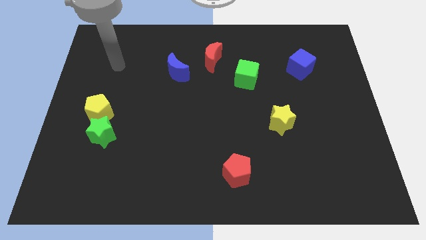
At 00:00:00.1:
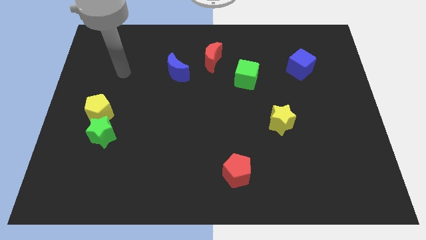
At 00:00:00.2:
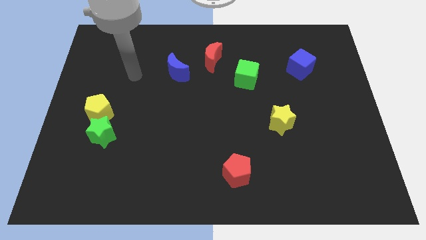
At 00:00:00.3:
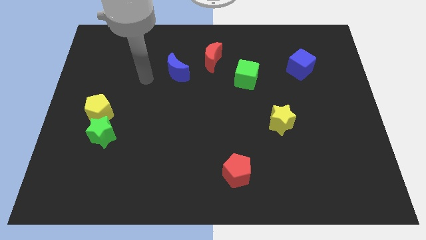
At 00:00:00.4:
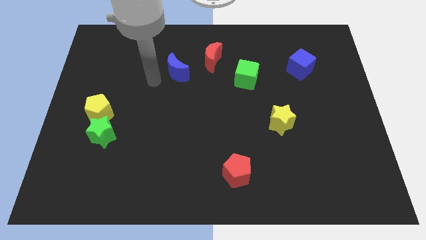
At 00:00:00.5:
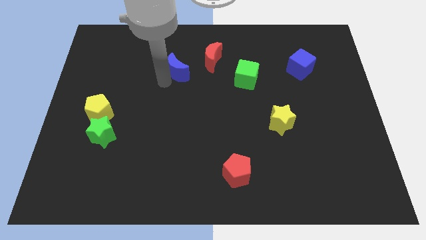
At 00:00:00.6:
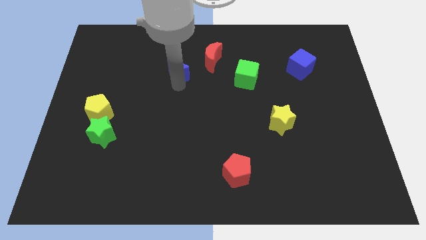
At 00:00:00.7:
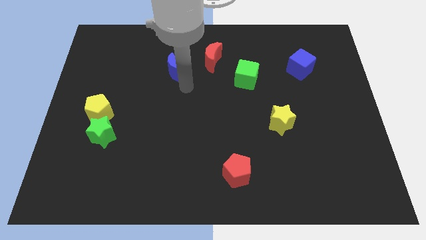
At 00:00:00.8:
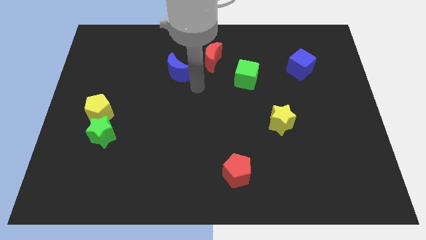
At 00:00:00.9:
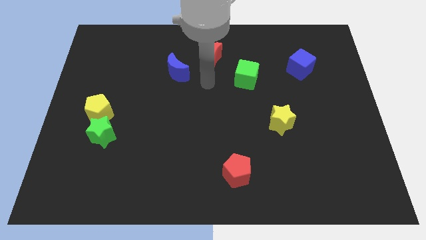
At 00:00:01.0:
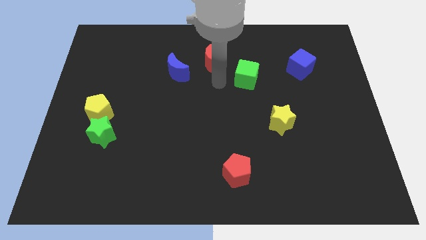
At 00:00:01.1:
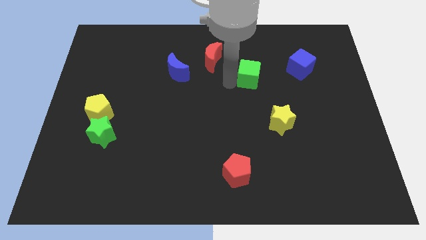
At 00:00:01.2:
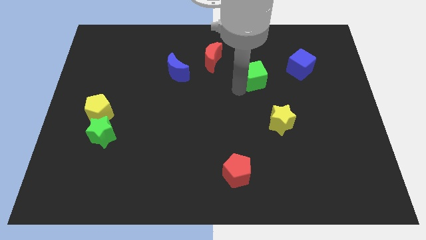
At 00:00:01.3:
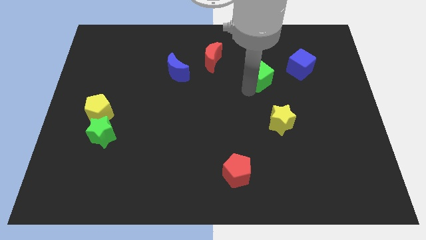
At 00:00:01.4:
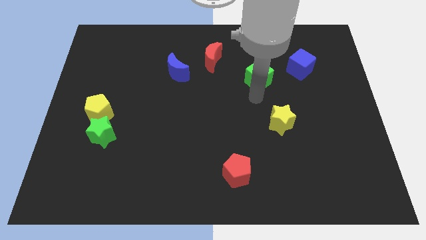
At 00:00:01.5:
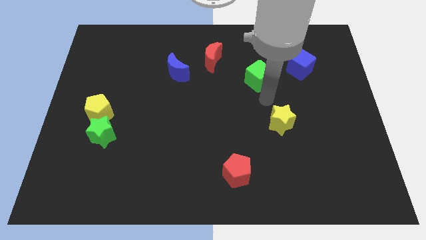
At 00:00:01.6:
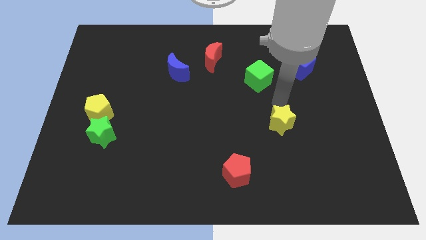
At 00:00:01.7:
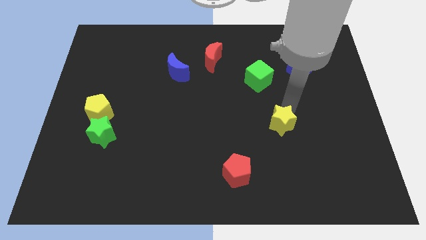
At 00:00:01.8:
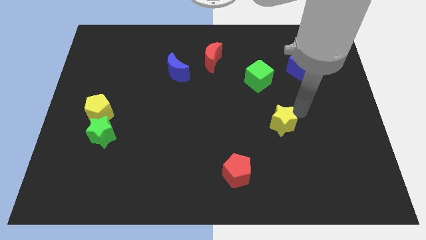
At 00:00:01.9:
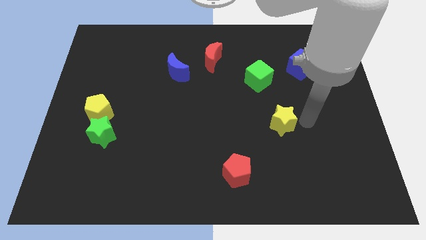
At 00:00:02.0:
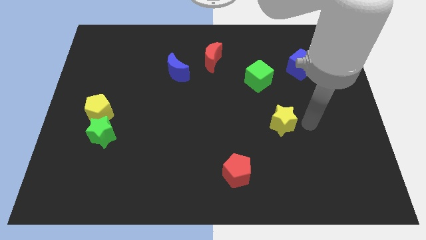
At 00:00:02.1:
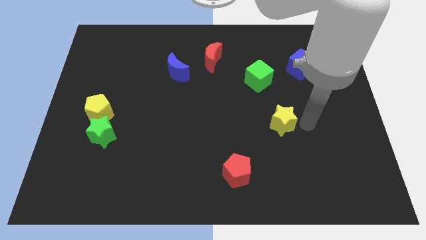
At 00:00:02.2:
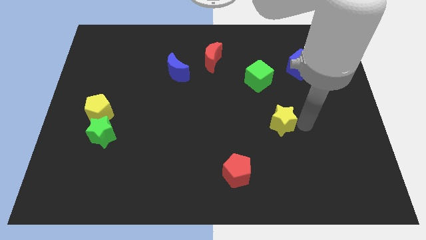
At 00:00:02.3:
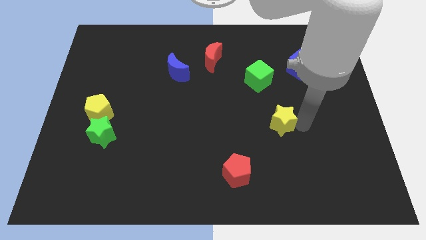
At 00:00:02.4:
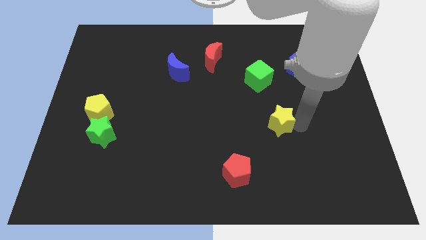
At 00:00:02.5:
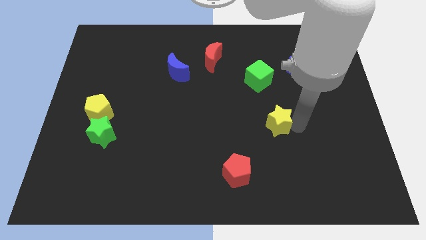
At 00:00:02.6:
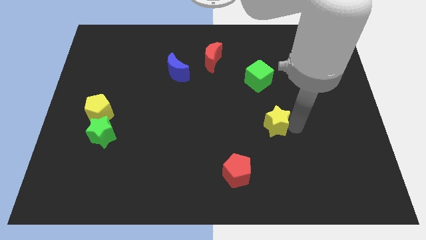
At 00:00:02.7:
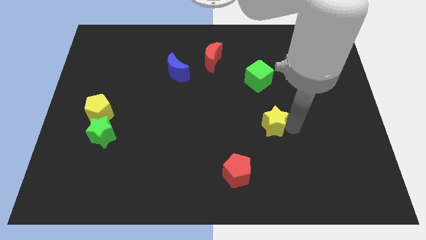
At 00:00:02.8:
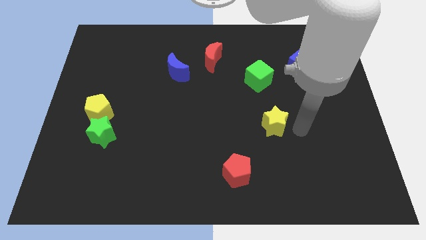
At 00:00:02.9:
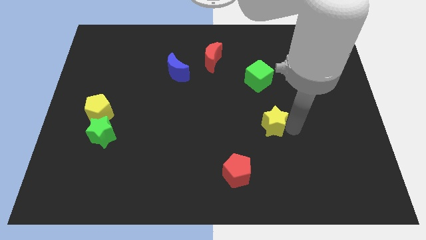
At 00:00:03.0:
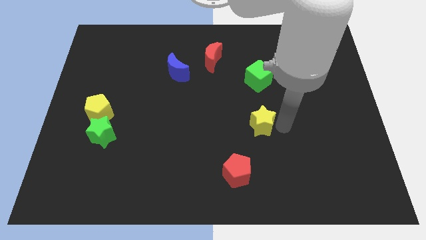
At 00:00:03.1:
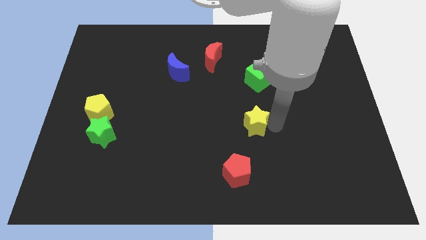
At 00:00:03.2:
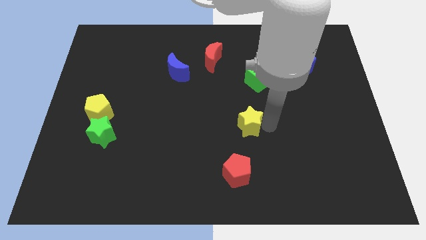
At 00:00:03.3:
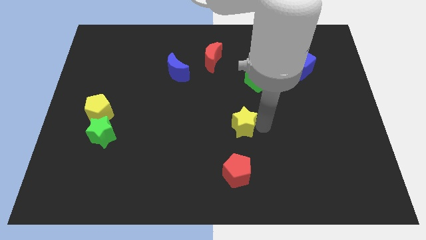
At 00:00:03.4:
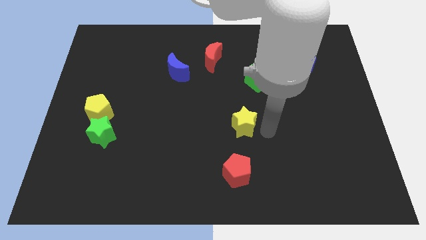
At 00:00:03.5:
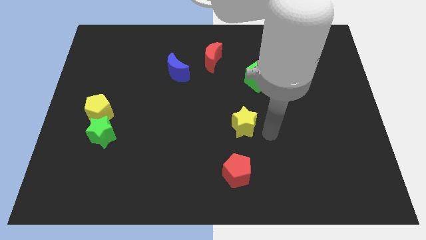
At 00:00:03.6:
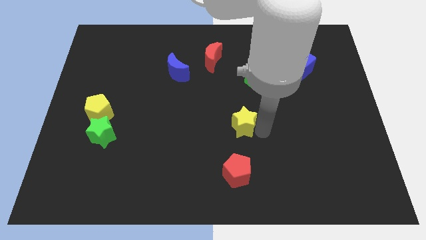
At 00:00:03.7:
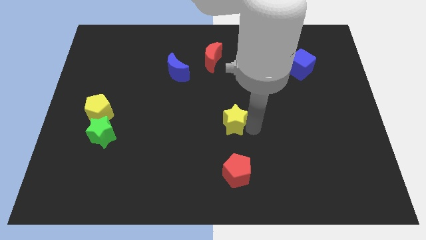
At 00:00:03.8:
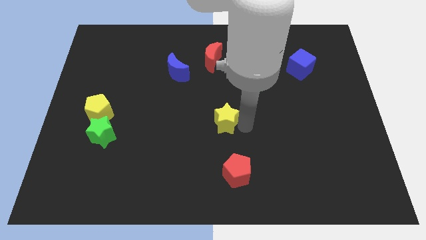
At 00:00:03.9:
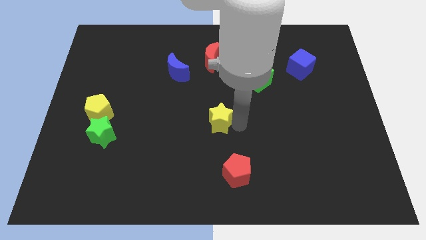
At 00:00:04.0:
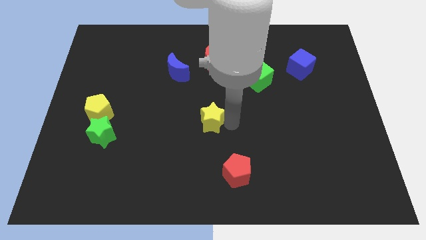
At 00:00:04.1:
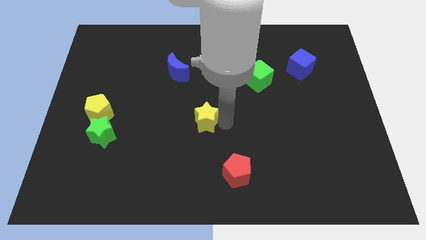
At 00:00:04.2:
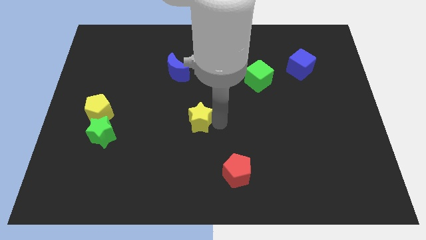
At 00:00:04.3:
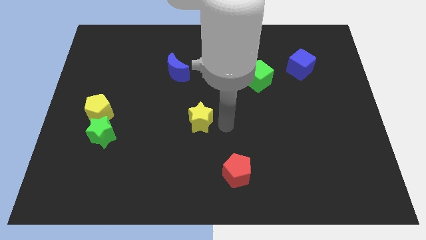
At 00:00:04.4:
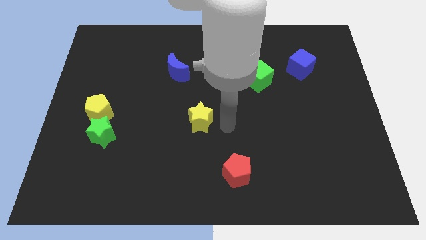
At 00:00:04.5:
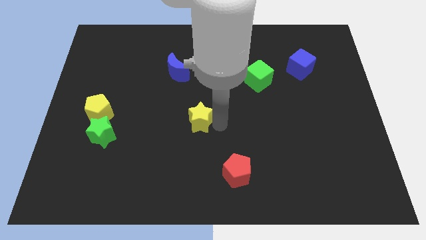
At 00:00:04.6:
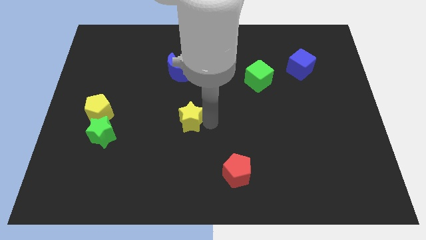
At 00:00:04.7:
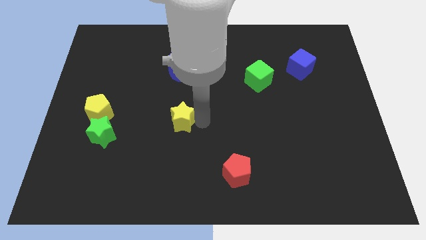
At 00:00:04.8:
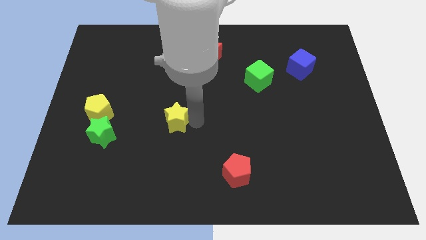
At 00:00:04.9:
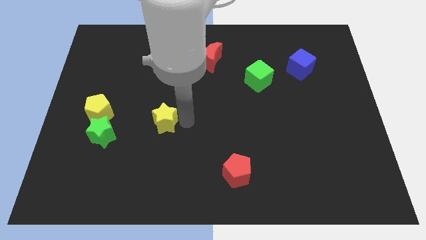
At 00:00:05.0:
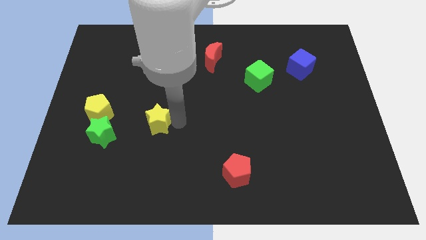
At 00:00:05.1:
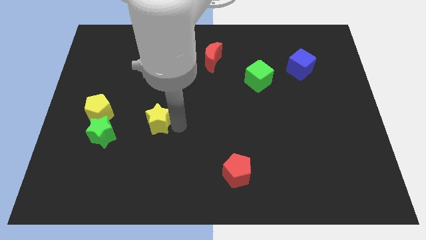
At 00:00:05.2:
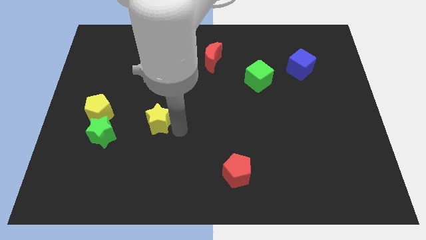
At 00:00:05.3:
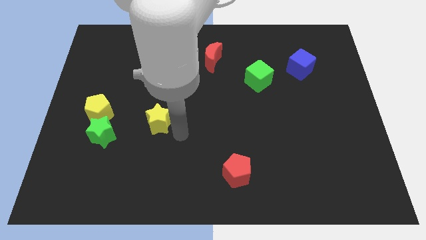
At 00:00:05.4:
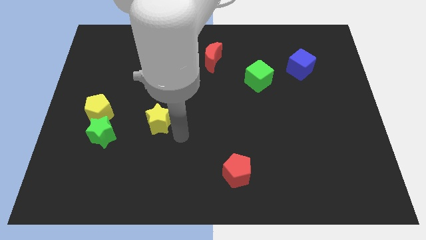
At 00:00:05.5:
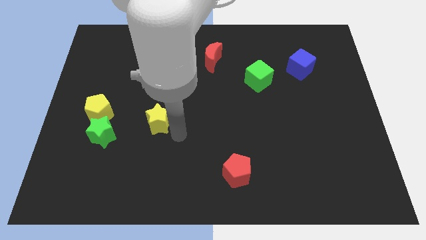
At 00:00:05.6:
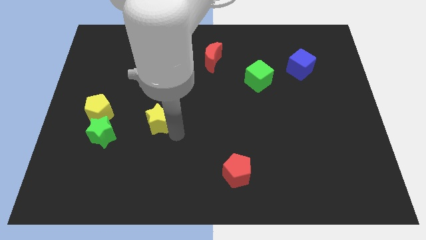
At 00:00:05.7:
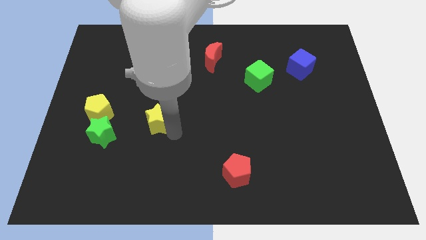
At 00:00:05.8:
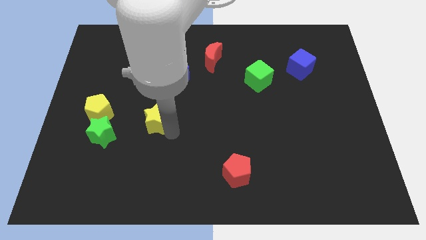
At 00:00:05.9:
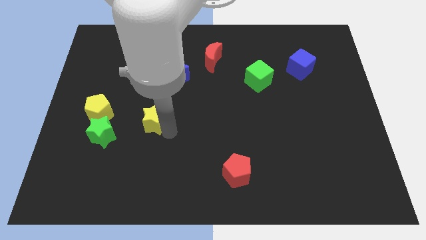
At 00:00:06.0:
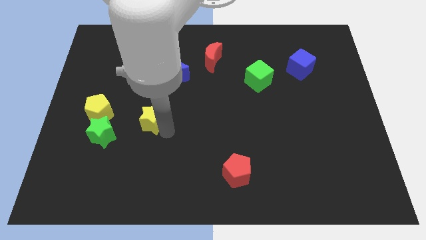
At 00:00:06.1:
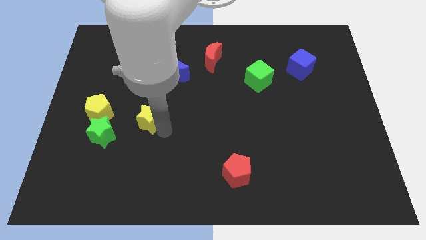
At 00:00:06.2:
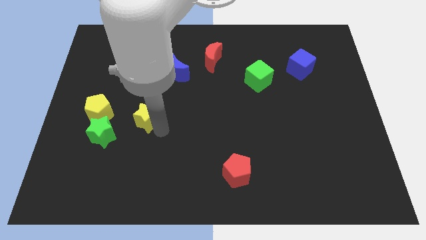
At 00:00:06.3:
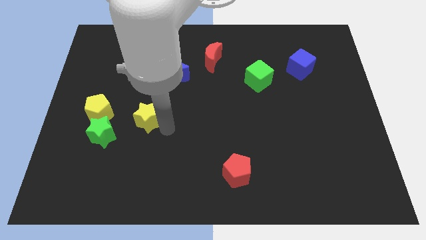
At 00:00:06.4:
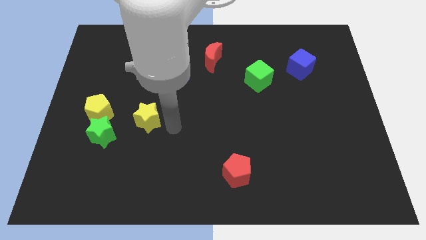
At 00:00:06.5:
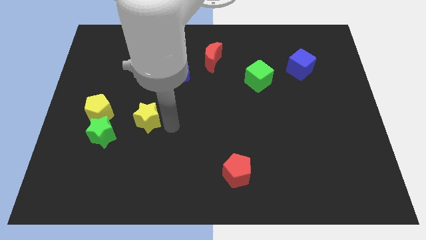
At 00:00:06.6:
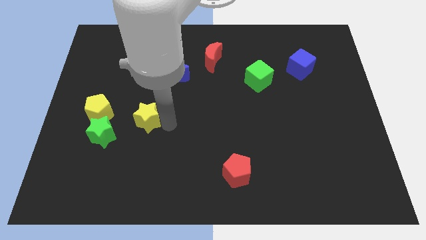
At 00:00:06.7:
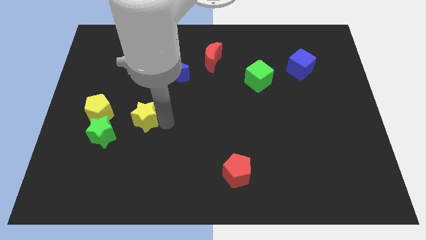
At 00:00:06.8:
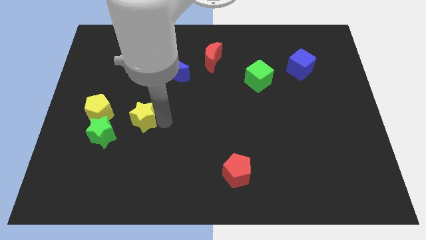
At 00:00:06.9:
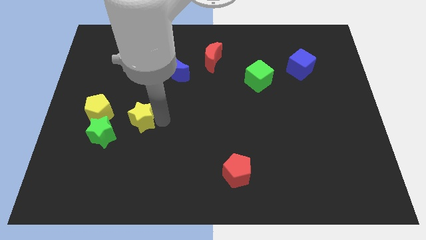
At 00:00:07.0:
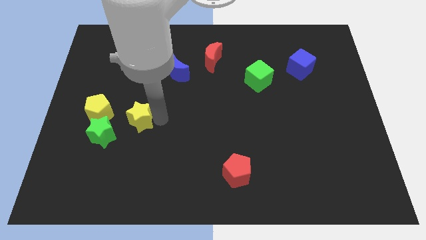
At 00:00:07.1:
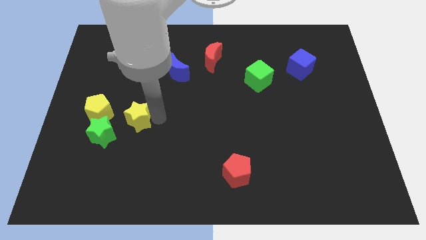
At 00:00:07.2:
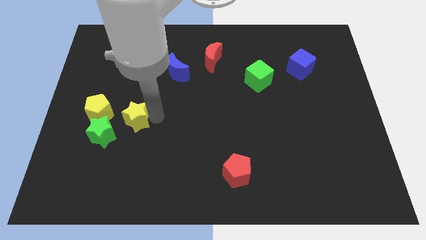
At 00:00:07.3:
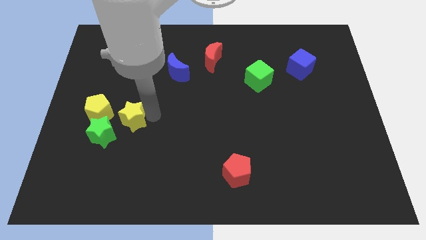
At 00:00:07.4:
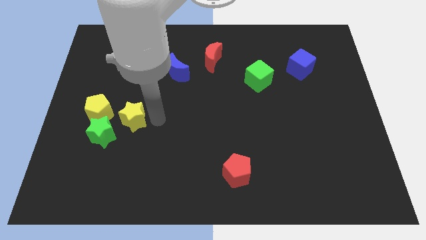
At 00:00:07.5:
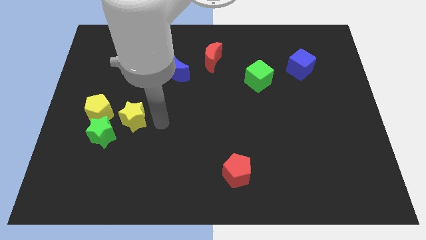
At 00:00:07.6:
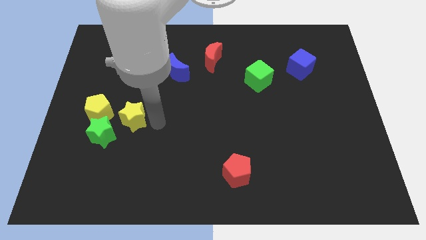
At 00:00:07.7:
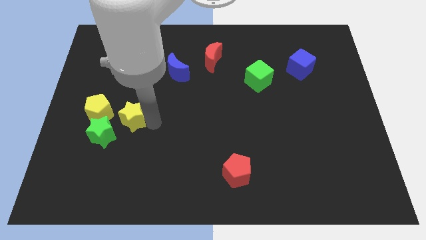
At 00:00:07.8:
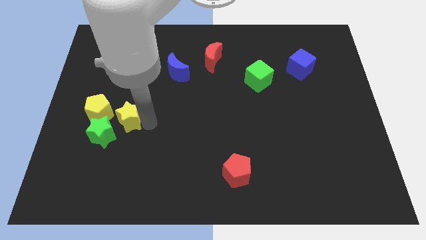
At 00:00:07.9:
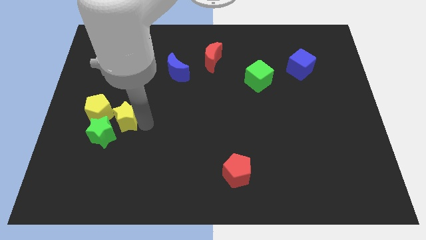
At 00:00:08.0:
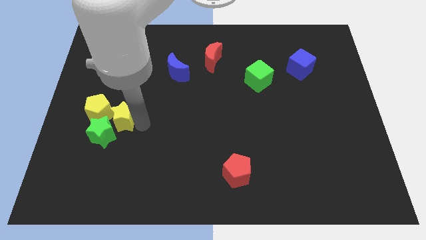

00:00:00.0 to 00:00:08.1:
put the yellow star to the yellow pentagon
